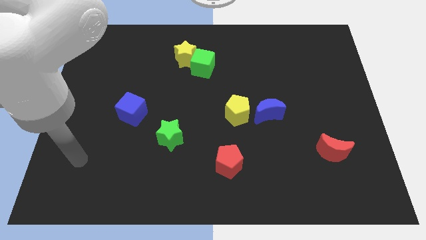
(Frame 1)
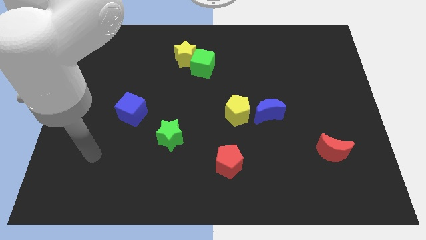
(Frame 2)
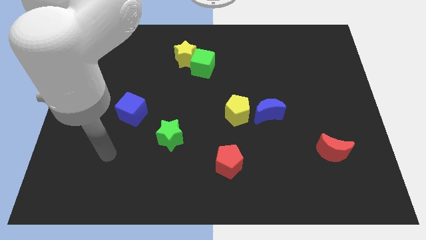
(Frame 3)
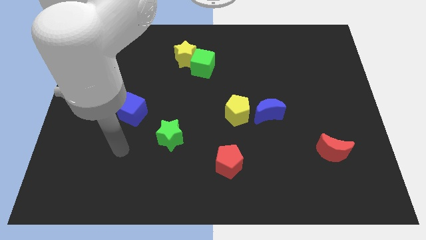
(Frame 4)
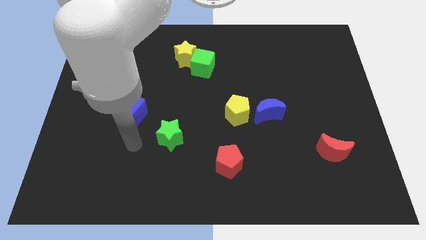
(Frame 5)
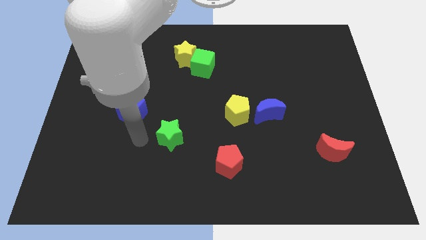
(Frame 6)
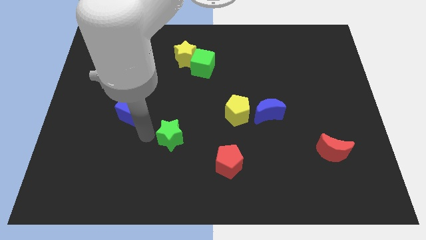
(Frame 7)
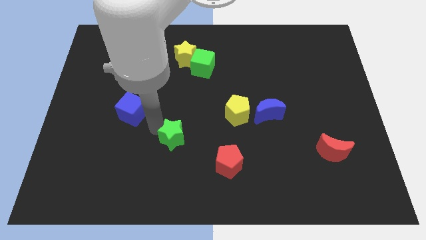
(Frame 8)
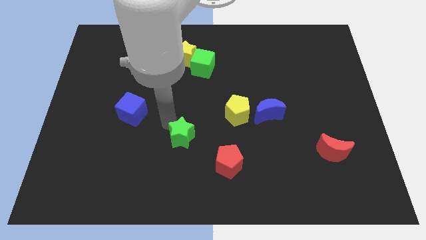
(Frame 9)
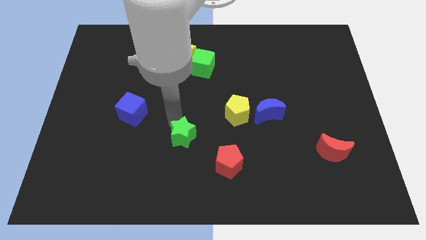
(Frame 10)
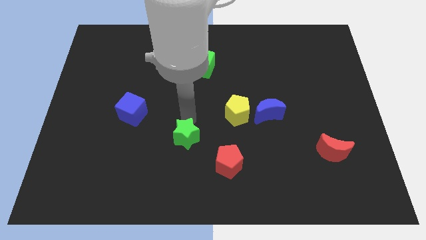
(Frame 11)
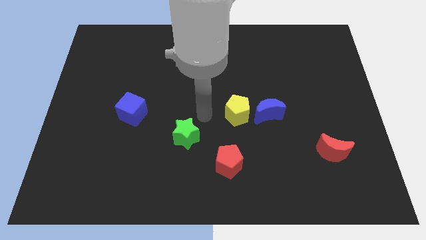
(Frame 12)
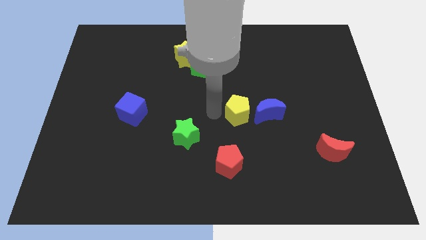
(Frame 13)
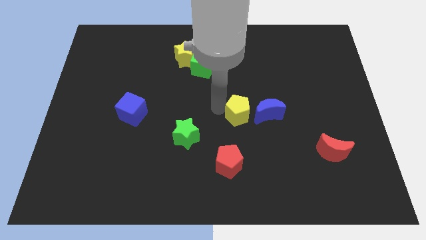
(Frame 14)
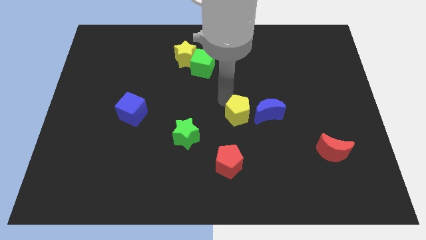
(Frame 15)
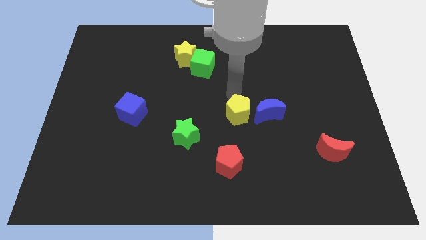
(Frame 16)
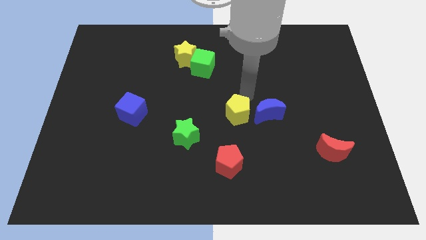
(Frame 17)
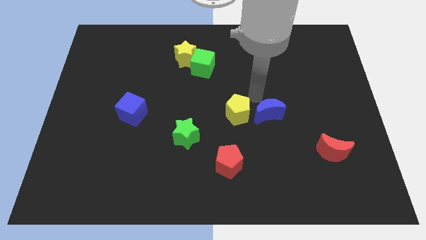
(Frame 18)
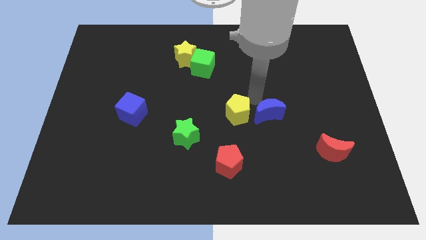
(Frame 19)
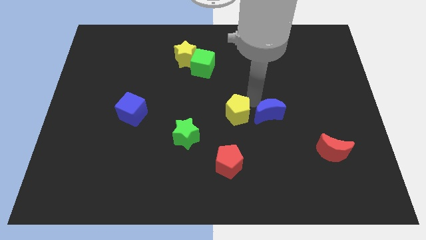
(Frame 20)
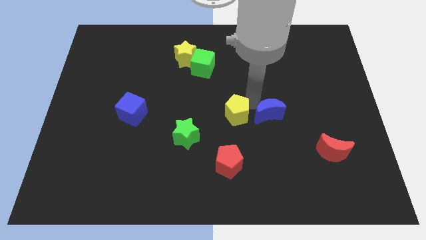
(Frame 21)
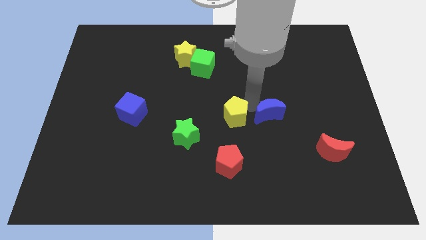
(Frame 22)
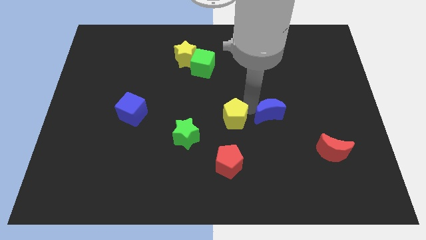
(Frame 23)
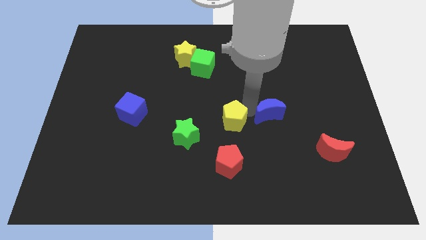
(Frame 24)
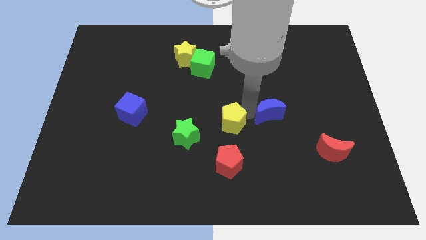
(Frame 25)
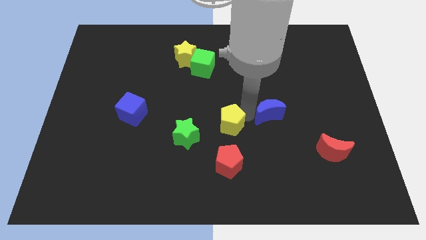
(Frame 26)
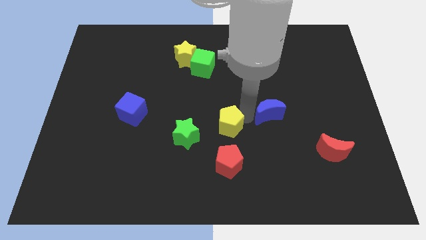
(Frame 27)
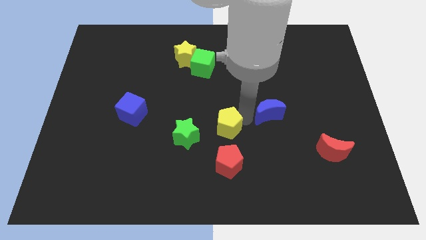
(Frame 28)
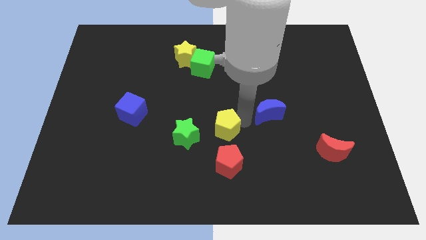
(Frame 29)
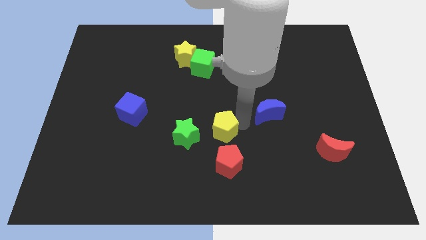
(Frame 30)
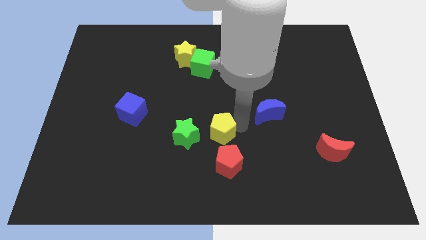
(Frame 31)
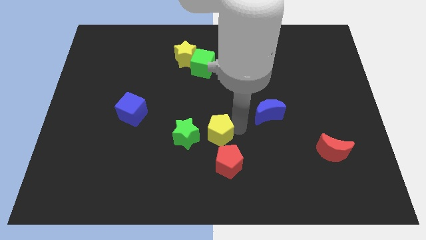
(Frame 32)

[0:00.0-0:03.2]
push the yellow pentagon diagonally downwards and to the left somewhat

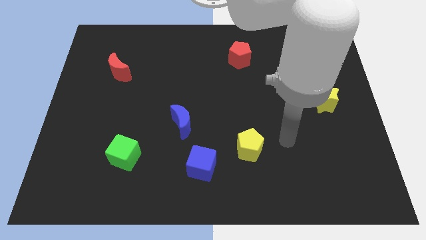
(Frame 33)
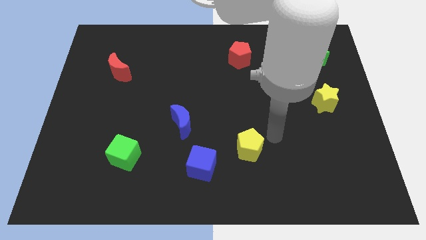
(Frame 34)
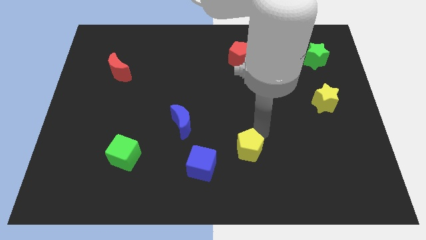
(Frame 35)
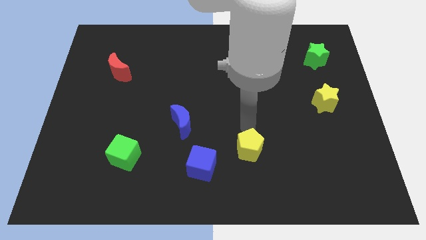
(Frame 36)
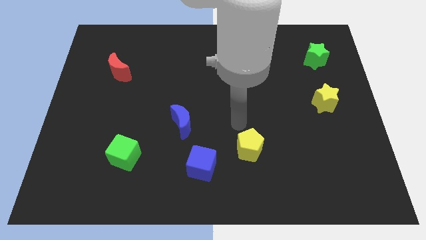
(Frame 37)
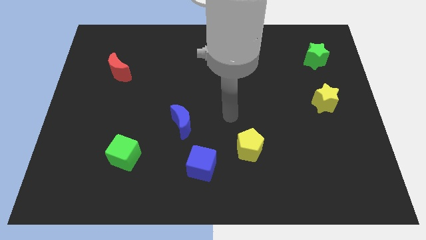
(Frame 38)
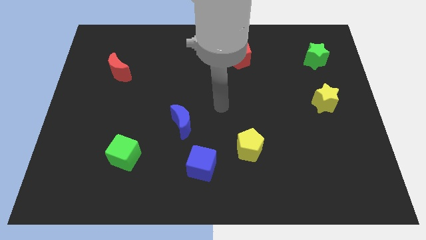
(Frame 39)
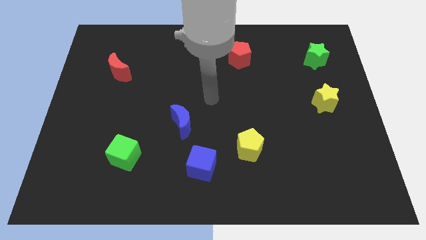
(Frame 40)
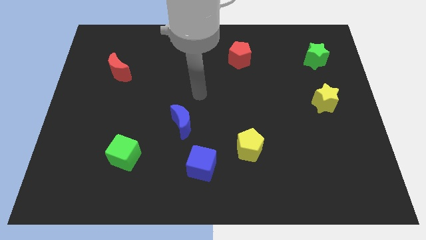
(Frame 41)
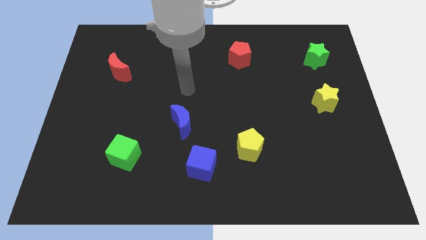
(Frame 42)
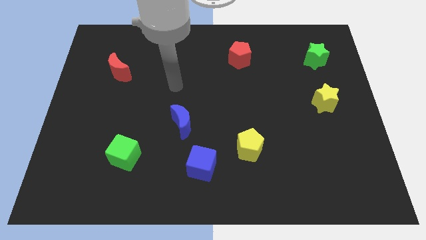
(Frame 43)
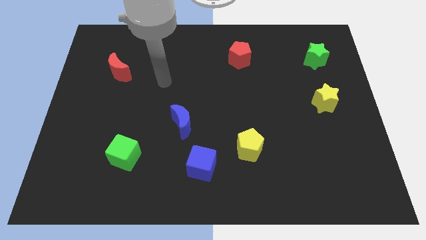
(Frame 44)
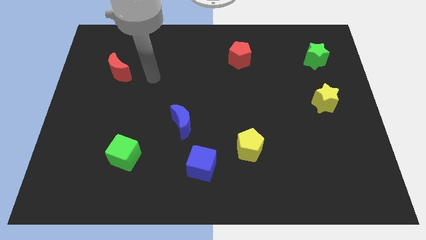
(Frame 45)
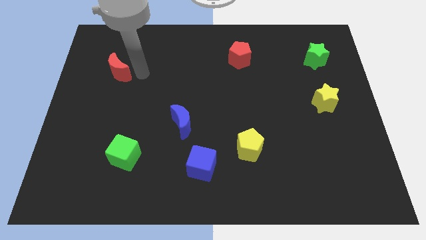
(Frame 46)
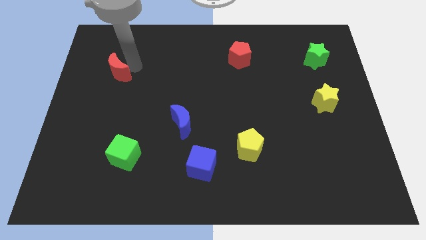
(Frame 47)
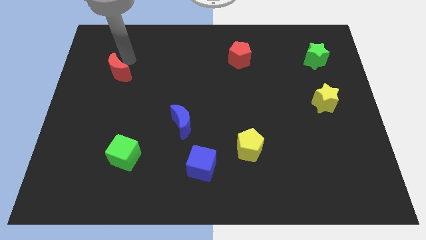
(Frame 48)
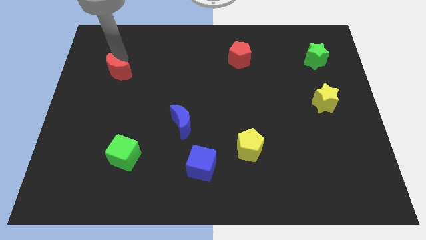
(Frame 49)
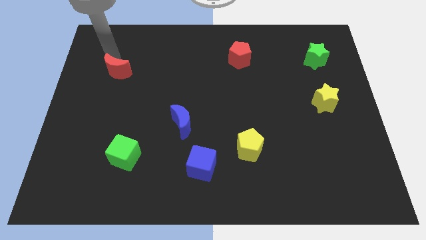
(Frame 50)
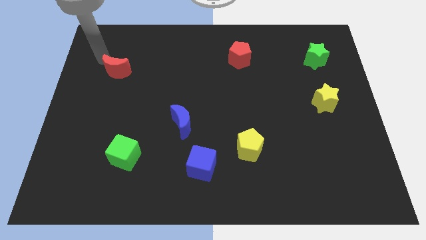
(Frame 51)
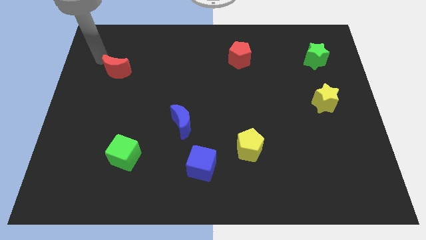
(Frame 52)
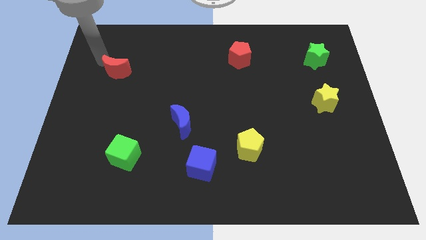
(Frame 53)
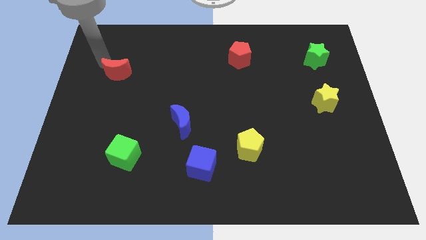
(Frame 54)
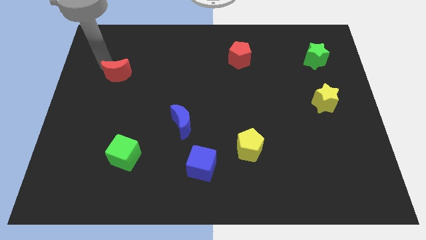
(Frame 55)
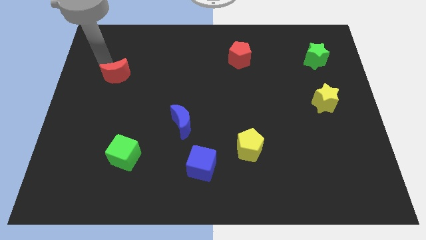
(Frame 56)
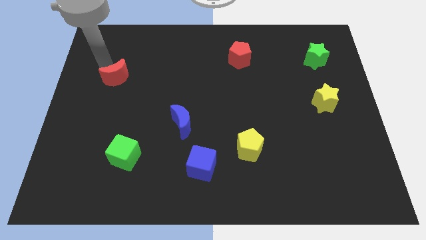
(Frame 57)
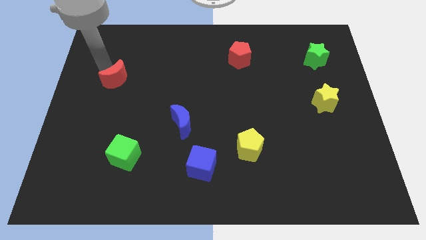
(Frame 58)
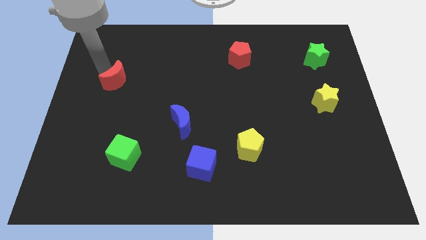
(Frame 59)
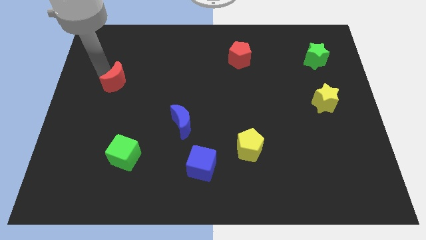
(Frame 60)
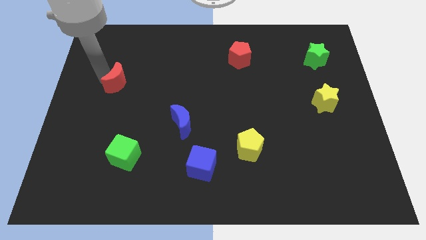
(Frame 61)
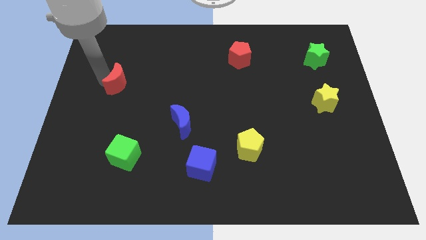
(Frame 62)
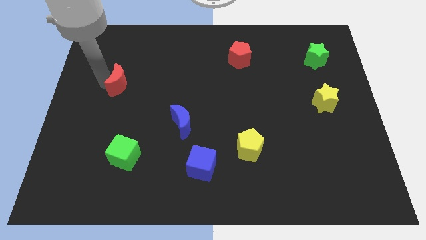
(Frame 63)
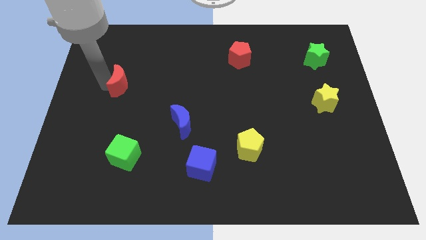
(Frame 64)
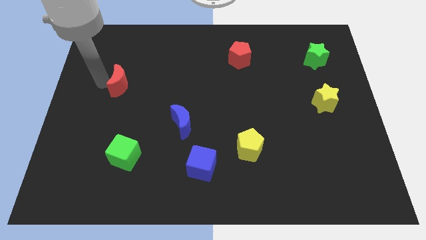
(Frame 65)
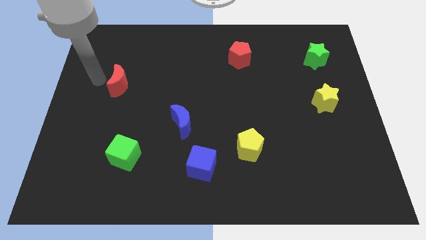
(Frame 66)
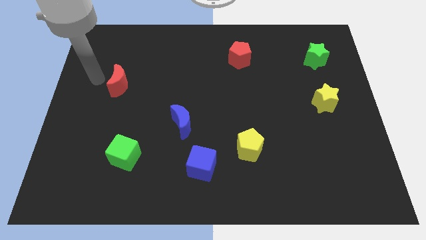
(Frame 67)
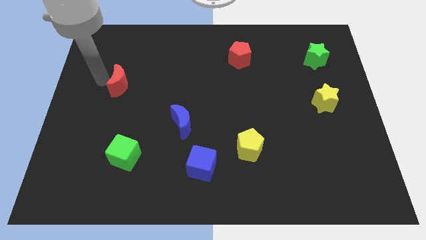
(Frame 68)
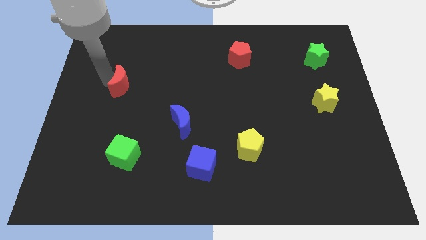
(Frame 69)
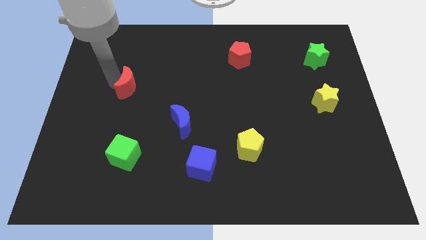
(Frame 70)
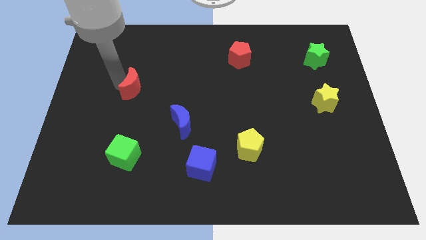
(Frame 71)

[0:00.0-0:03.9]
slide the red moon a little bit down and then to the right

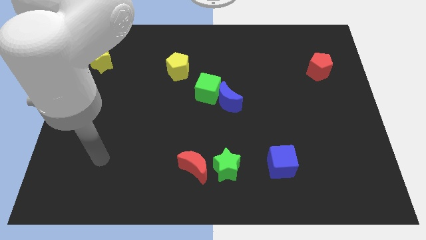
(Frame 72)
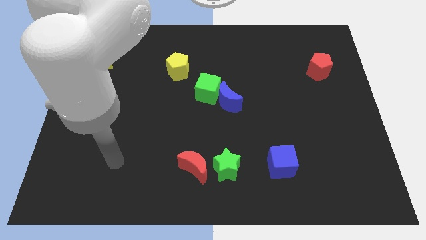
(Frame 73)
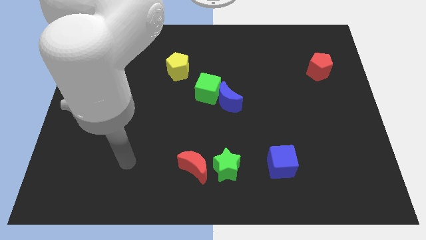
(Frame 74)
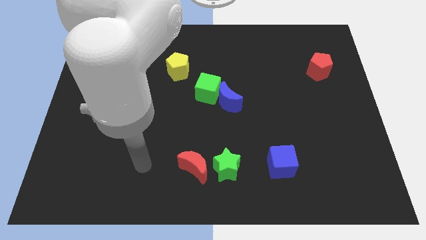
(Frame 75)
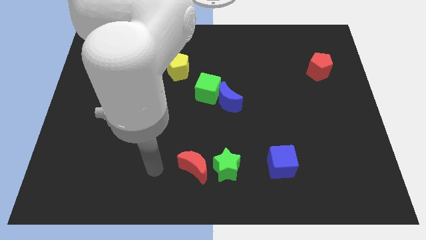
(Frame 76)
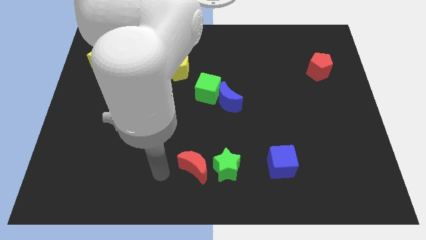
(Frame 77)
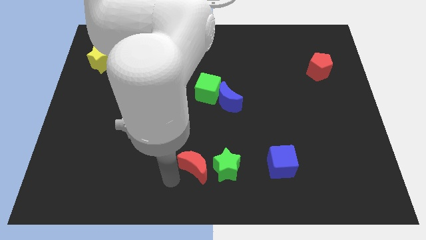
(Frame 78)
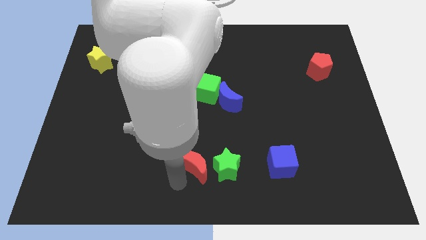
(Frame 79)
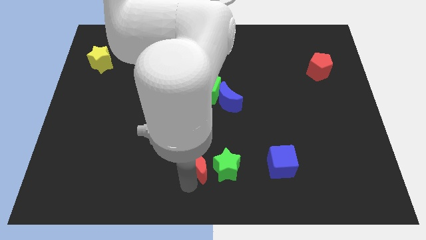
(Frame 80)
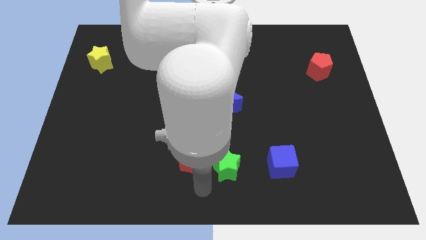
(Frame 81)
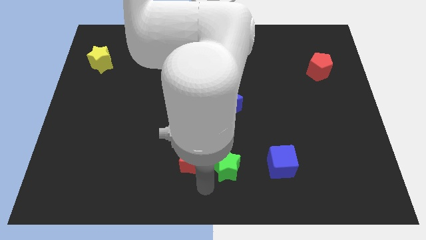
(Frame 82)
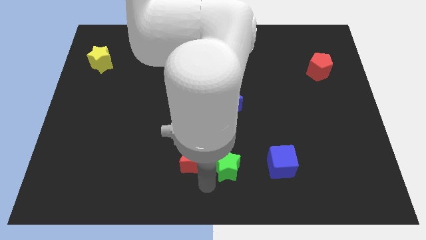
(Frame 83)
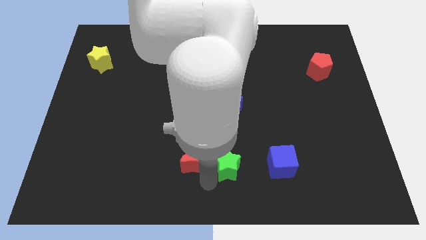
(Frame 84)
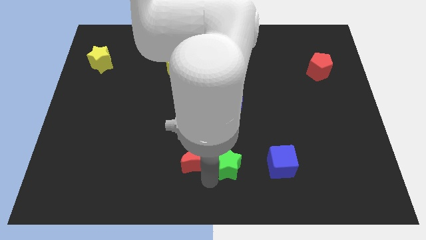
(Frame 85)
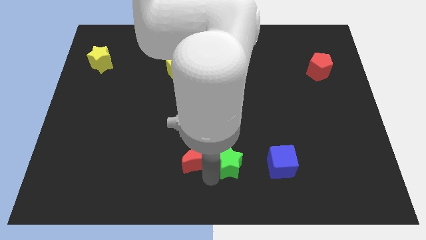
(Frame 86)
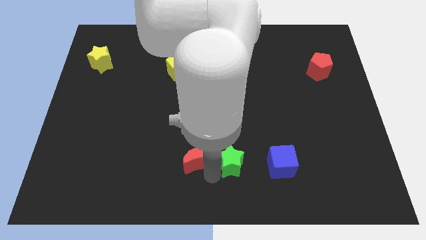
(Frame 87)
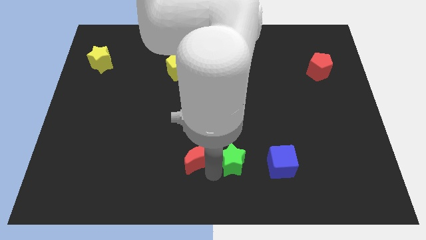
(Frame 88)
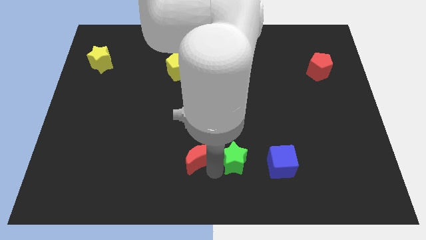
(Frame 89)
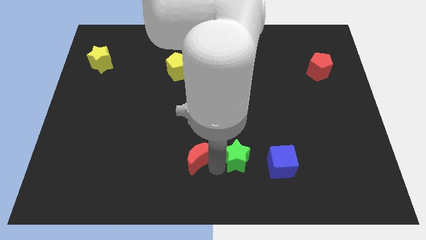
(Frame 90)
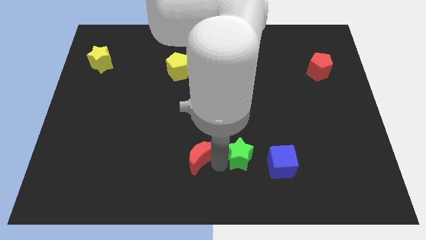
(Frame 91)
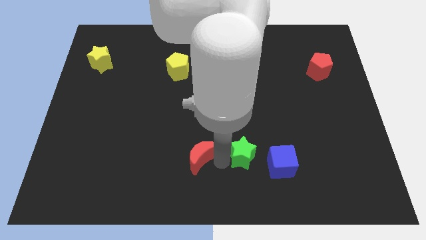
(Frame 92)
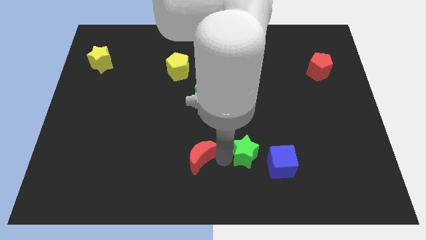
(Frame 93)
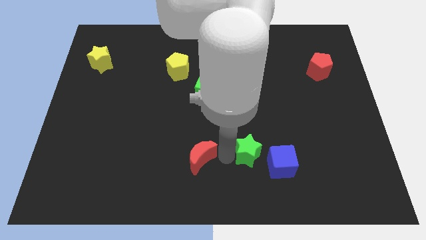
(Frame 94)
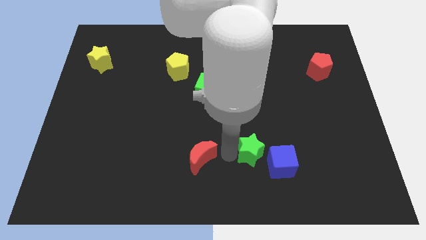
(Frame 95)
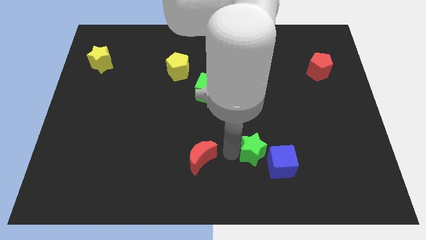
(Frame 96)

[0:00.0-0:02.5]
slightly push the green star up and to the right diagonally
